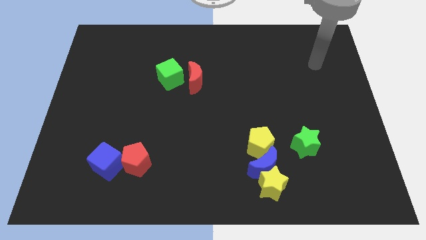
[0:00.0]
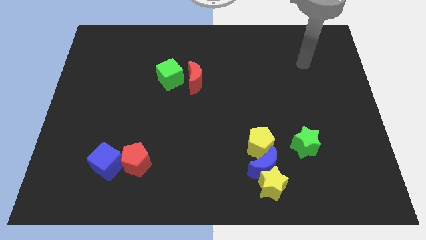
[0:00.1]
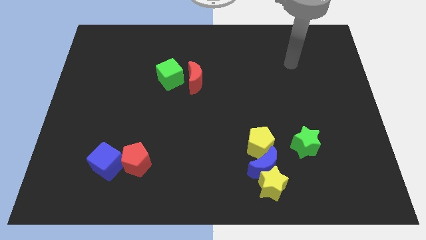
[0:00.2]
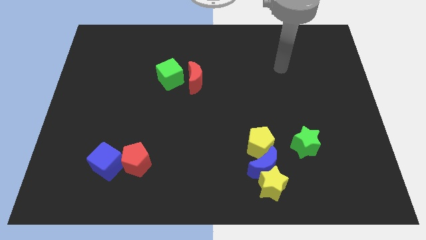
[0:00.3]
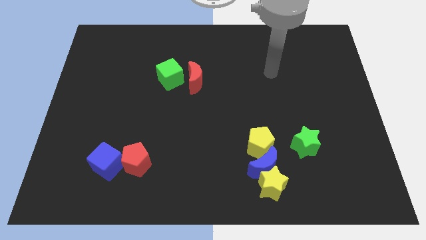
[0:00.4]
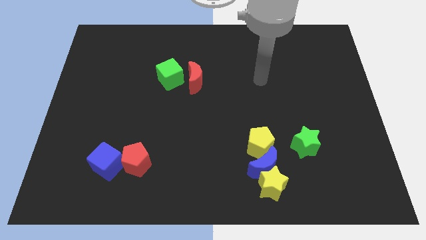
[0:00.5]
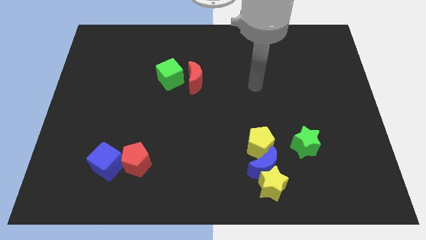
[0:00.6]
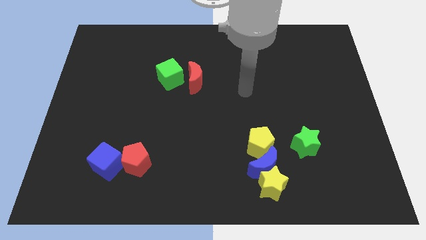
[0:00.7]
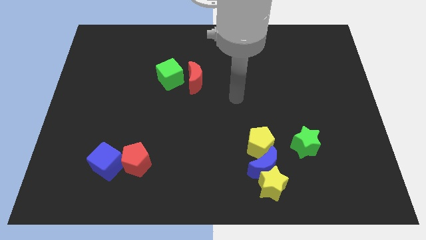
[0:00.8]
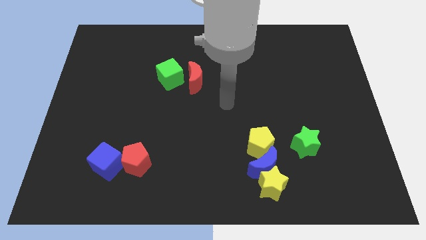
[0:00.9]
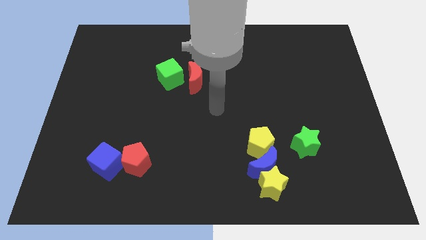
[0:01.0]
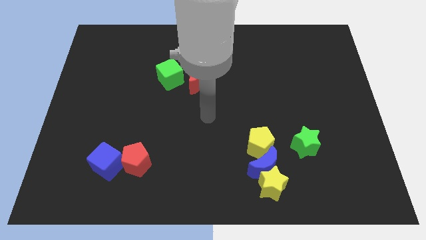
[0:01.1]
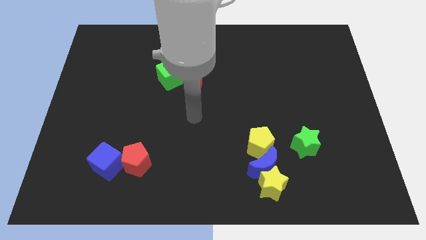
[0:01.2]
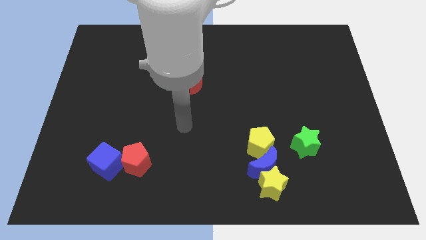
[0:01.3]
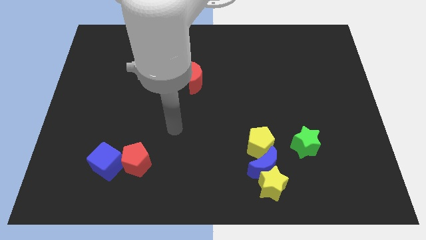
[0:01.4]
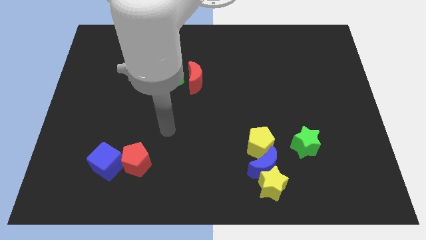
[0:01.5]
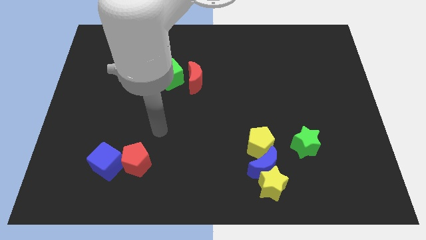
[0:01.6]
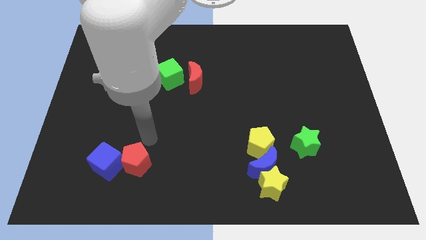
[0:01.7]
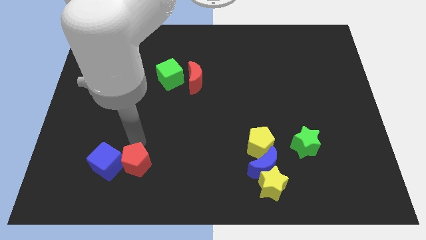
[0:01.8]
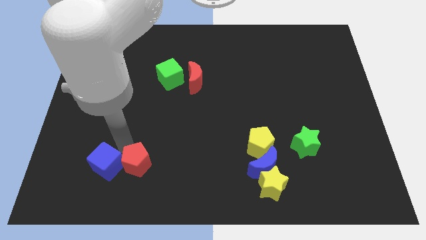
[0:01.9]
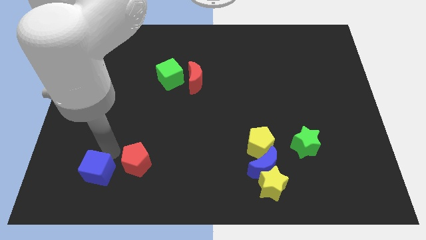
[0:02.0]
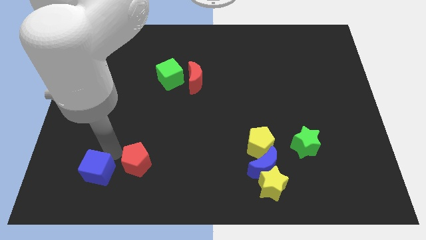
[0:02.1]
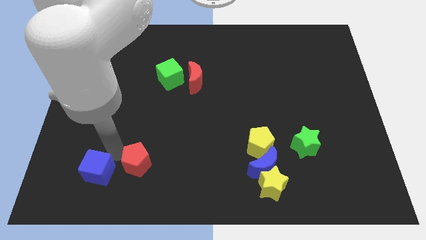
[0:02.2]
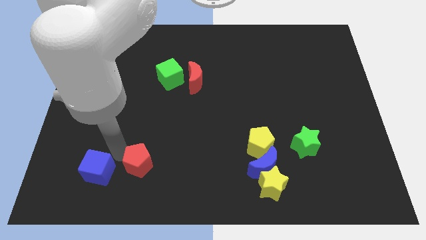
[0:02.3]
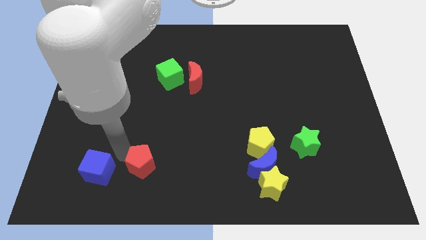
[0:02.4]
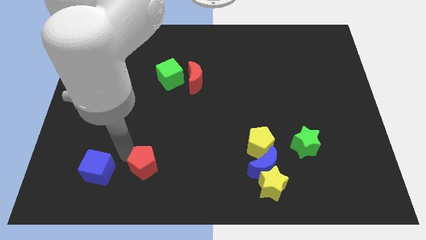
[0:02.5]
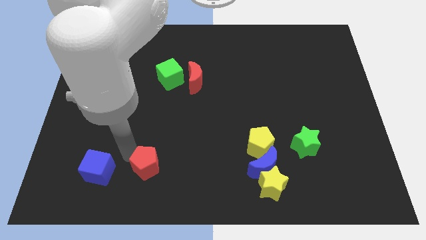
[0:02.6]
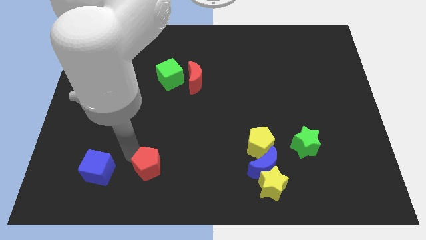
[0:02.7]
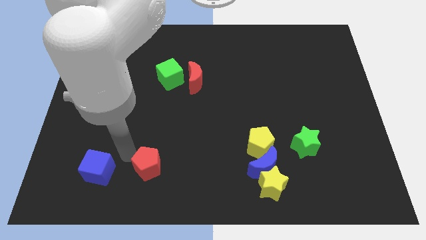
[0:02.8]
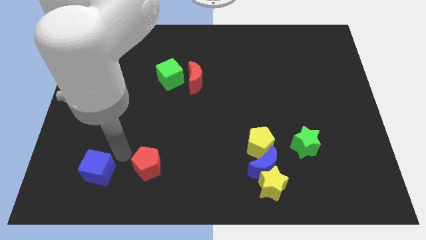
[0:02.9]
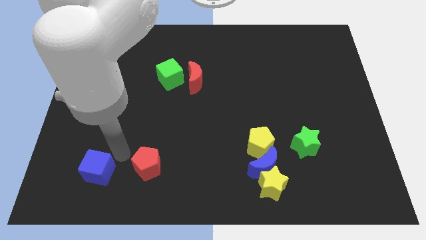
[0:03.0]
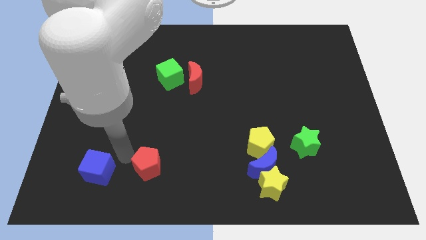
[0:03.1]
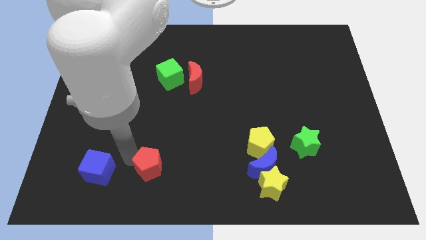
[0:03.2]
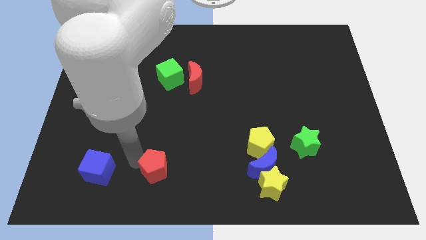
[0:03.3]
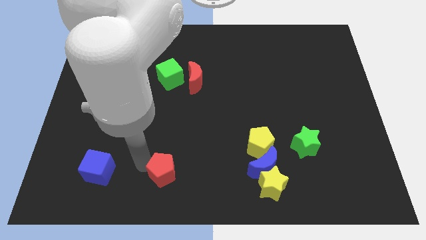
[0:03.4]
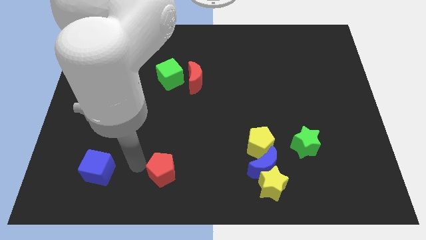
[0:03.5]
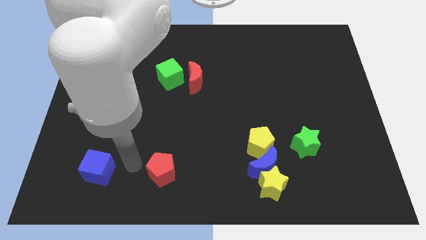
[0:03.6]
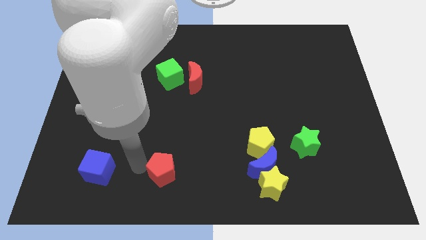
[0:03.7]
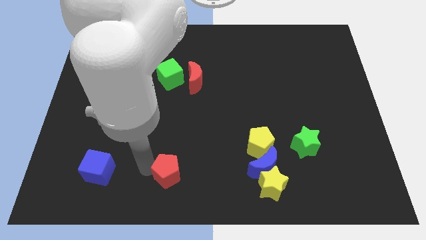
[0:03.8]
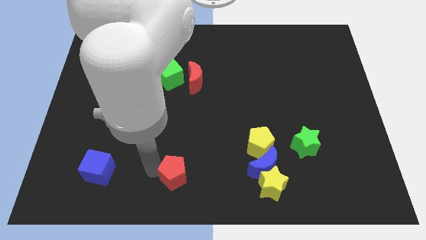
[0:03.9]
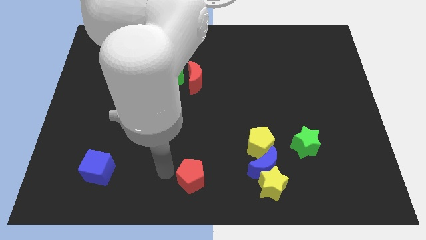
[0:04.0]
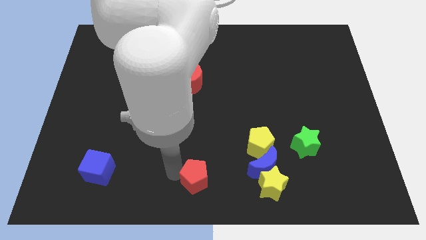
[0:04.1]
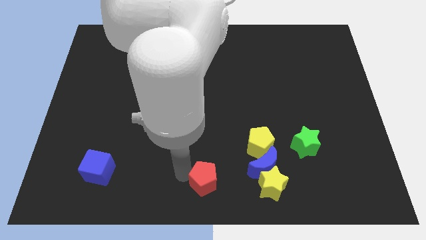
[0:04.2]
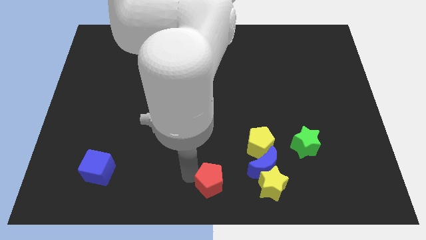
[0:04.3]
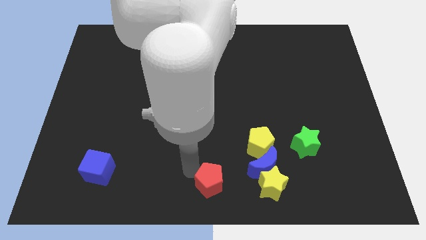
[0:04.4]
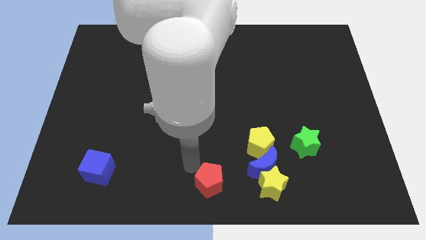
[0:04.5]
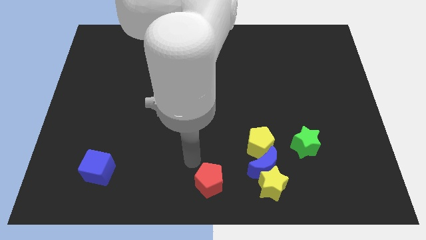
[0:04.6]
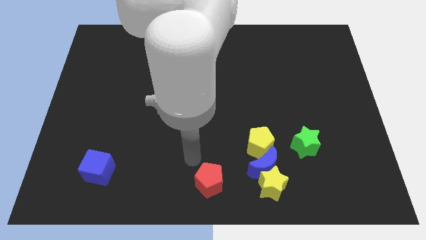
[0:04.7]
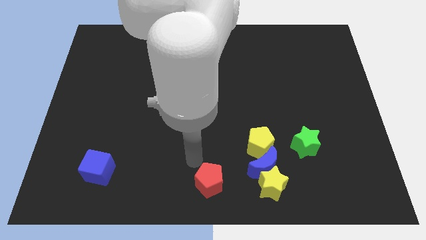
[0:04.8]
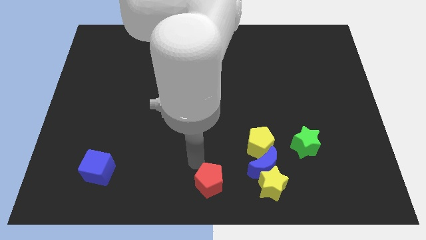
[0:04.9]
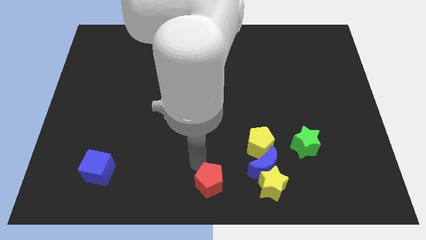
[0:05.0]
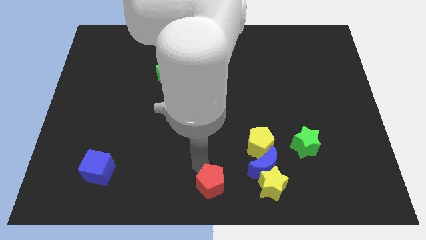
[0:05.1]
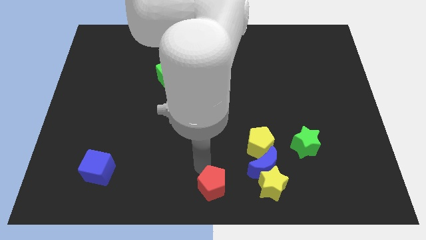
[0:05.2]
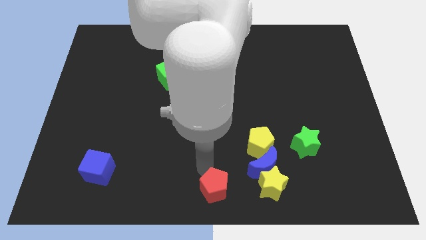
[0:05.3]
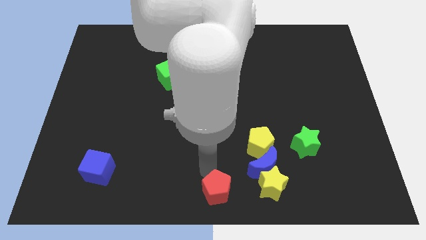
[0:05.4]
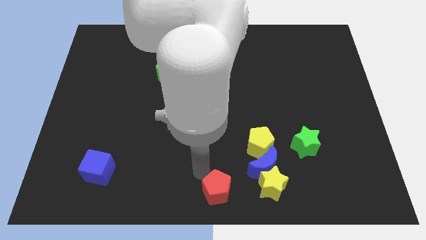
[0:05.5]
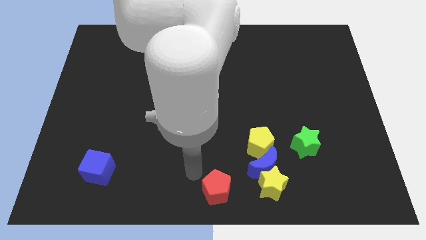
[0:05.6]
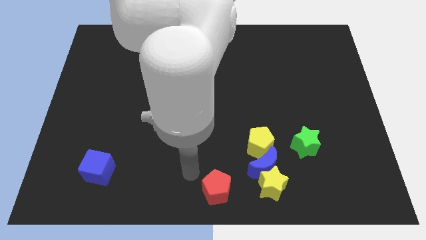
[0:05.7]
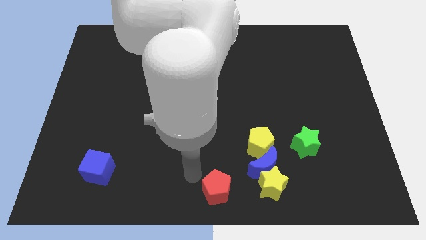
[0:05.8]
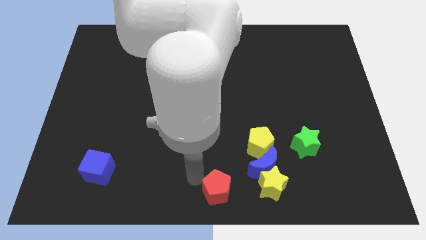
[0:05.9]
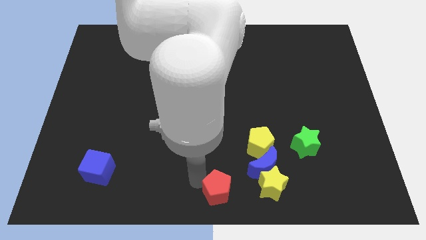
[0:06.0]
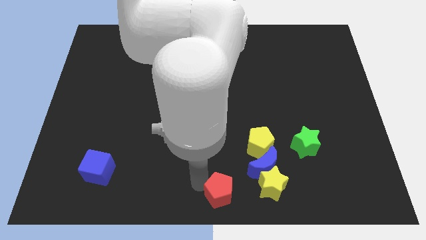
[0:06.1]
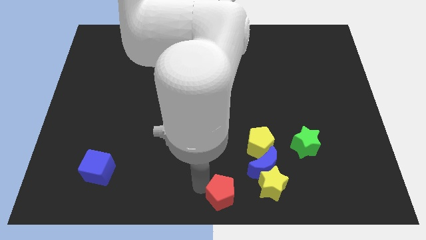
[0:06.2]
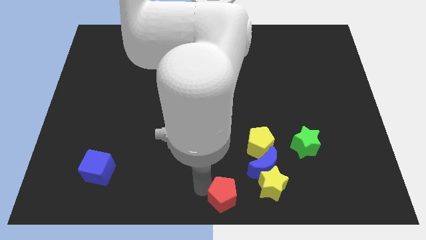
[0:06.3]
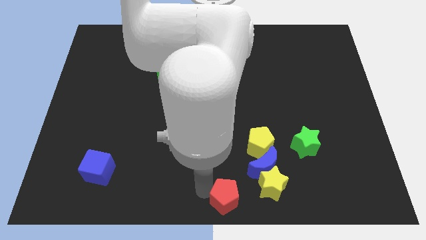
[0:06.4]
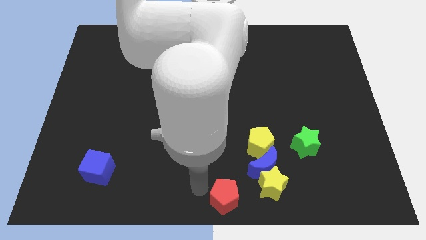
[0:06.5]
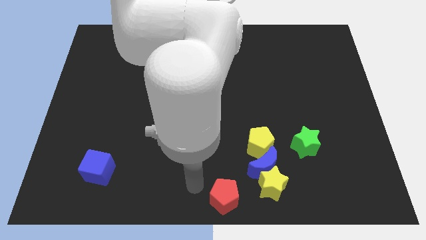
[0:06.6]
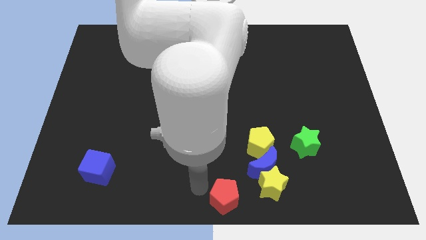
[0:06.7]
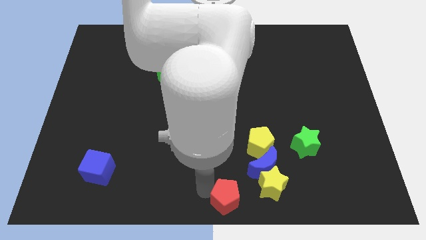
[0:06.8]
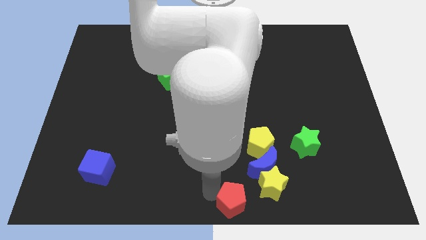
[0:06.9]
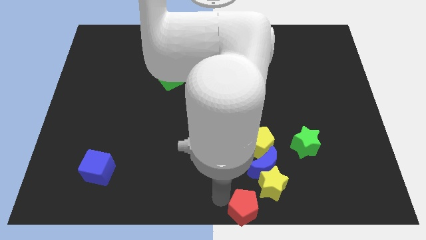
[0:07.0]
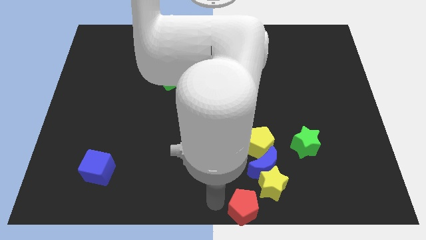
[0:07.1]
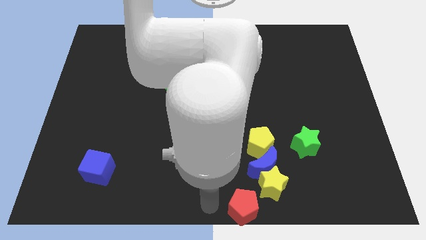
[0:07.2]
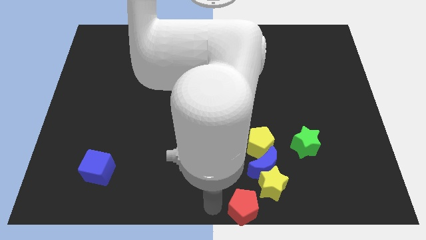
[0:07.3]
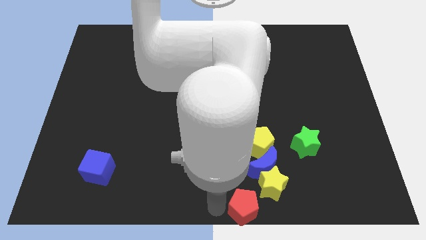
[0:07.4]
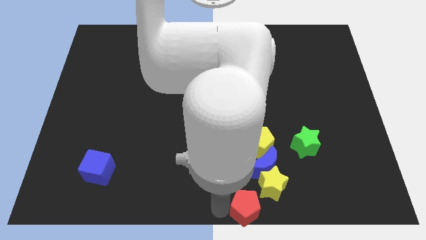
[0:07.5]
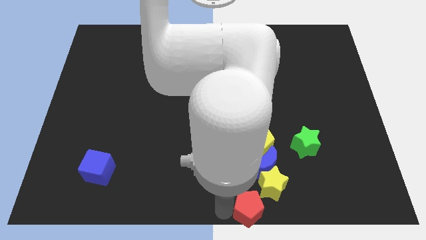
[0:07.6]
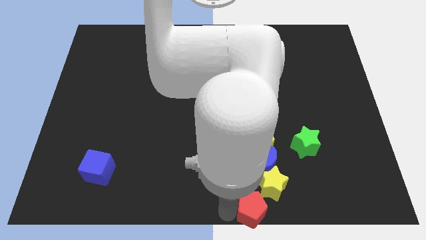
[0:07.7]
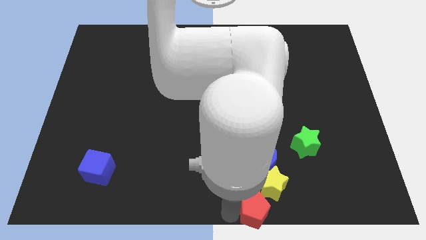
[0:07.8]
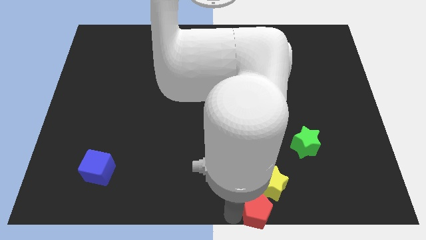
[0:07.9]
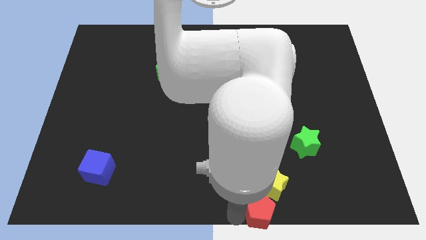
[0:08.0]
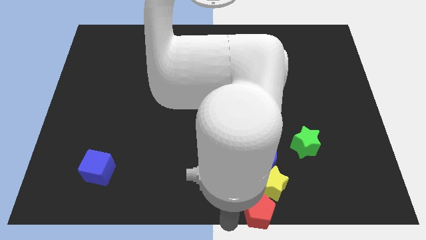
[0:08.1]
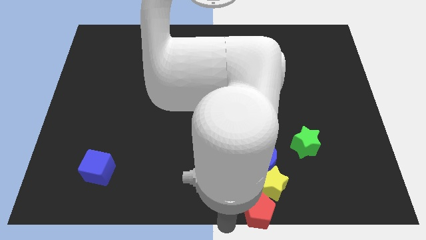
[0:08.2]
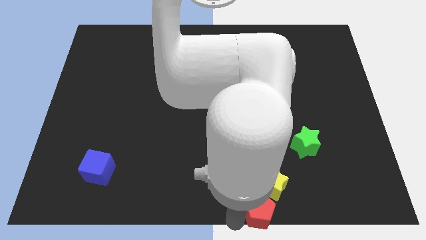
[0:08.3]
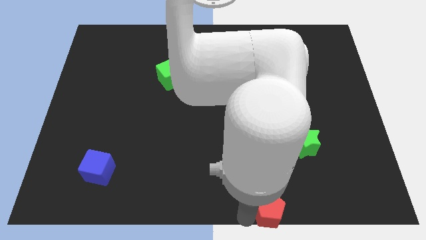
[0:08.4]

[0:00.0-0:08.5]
push the red pentagon to the right
